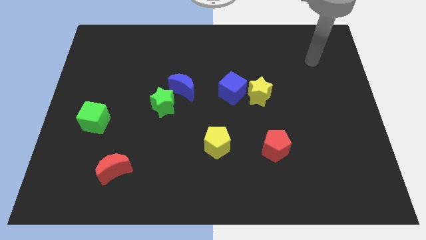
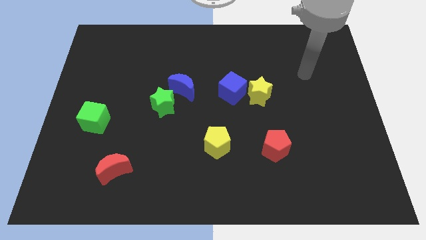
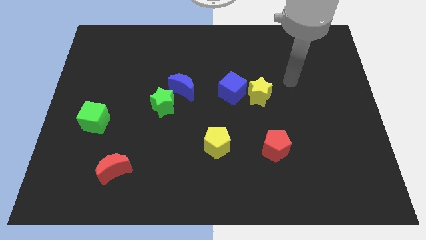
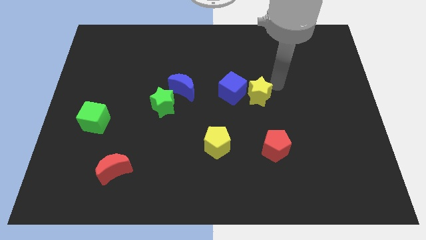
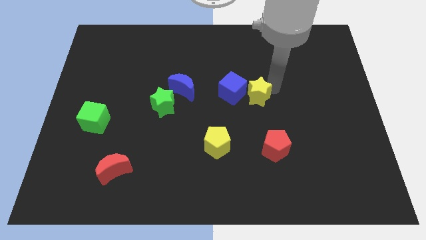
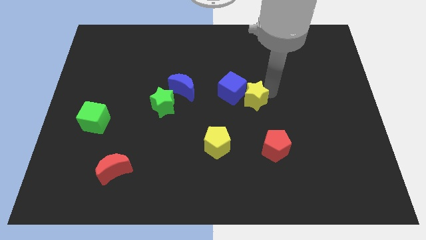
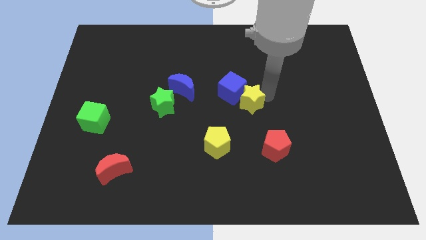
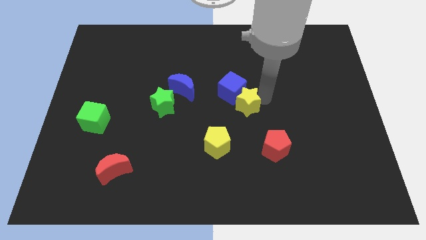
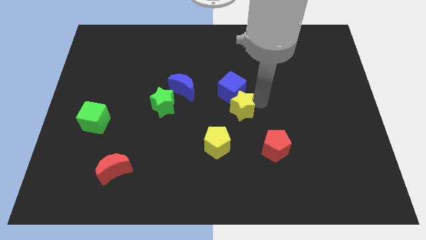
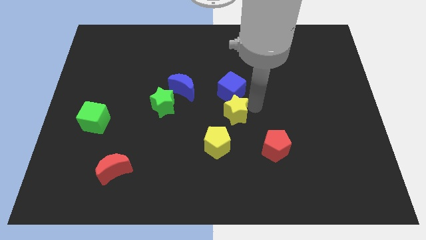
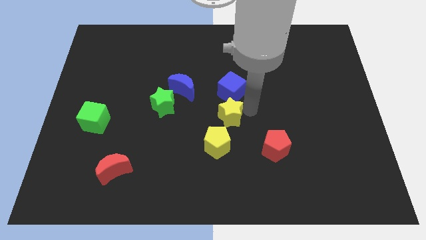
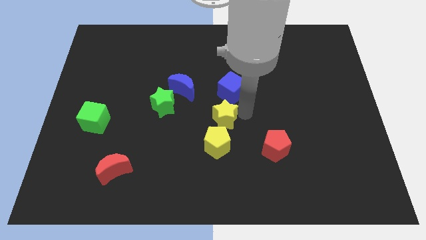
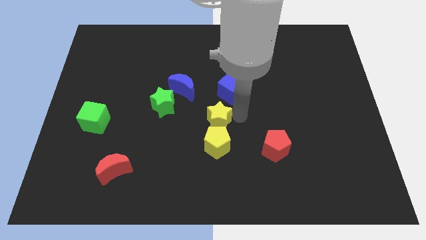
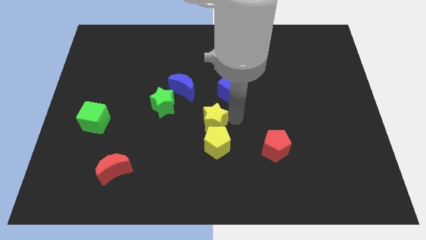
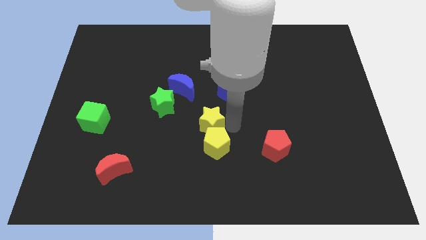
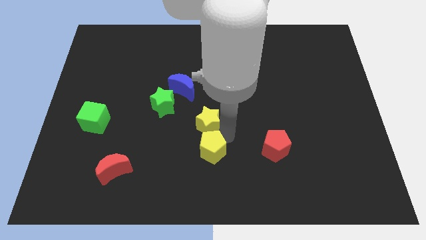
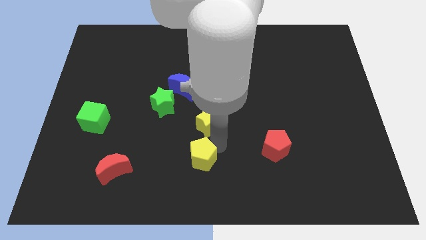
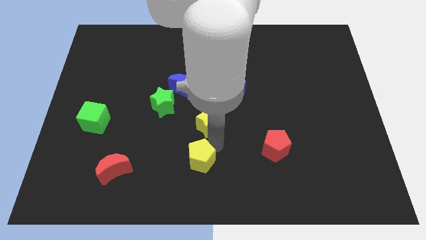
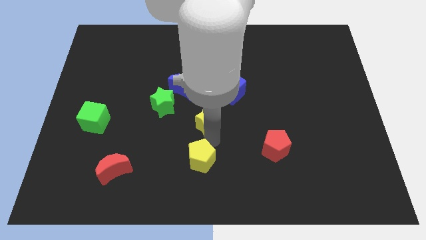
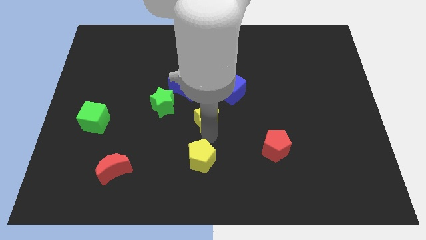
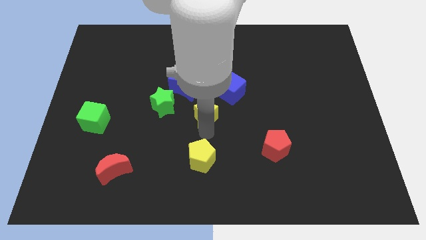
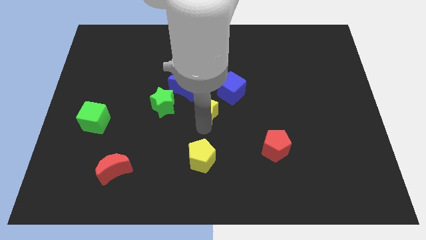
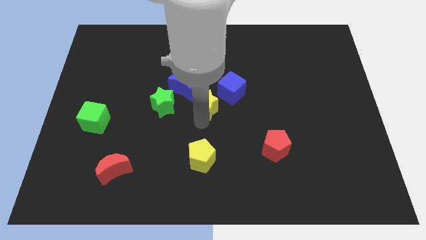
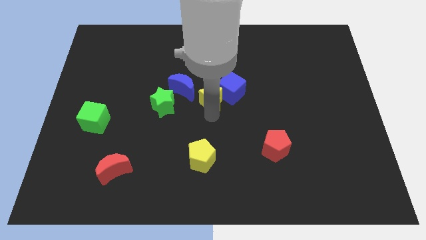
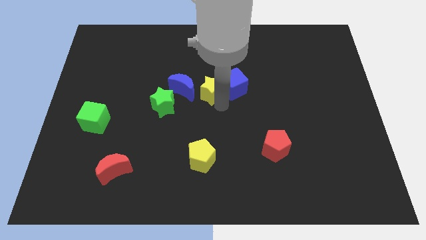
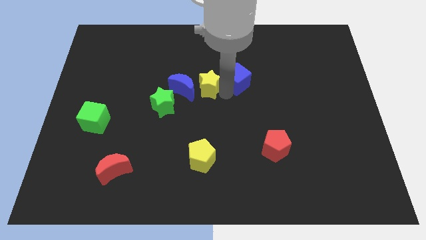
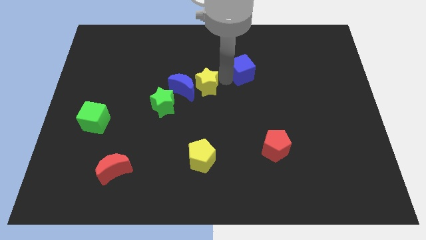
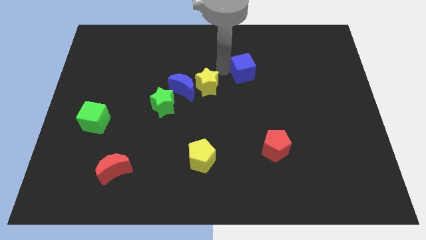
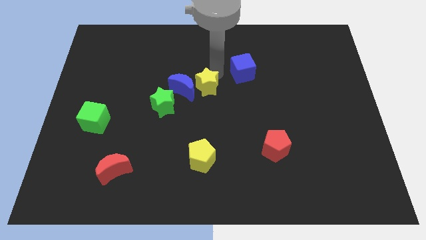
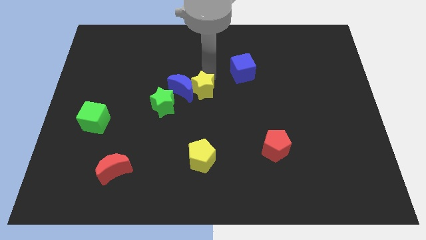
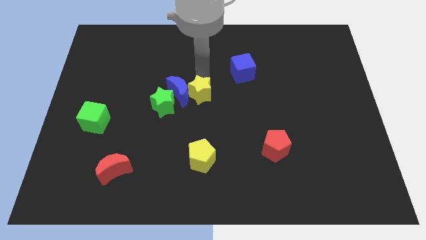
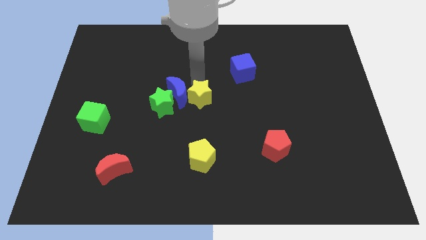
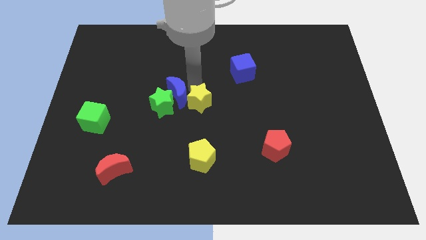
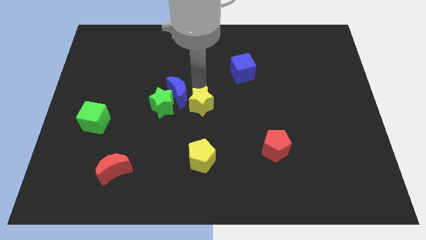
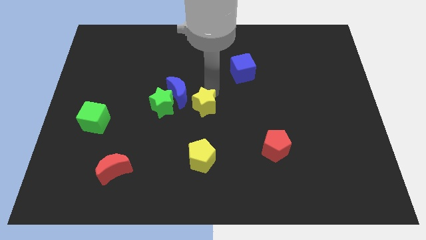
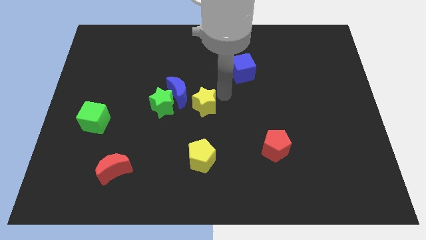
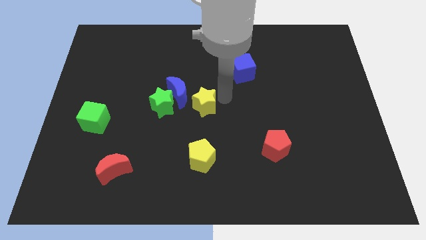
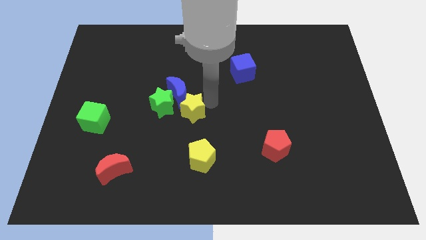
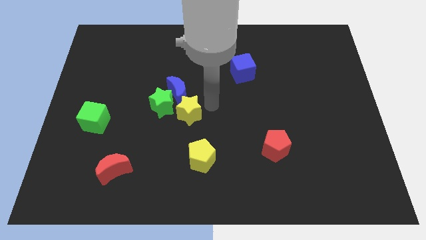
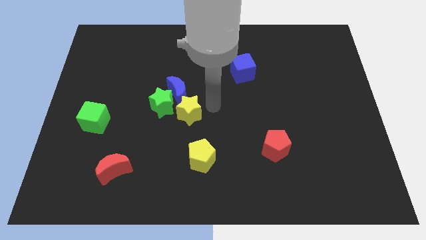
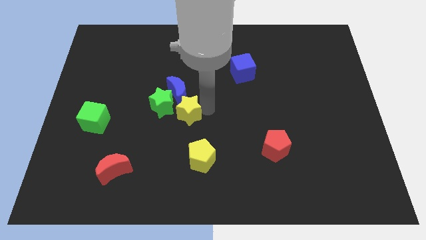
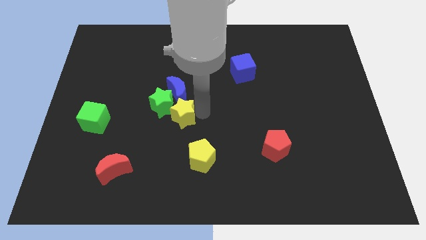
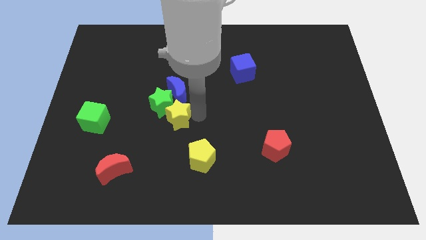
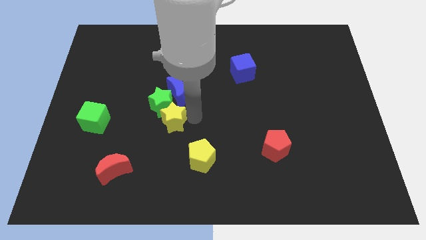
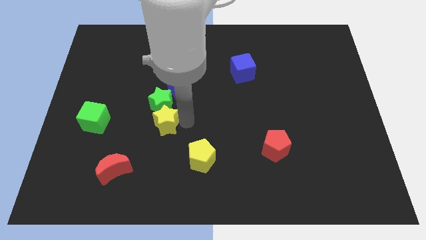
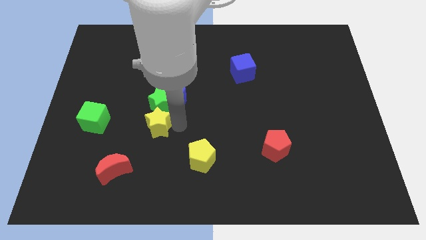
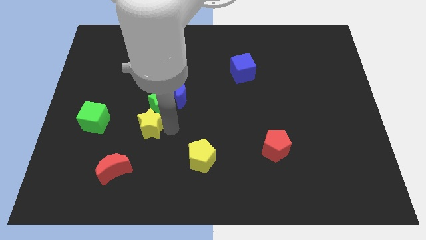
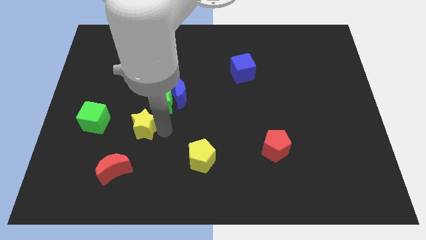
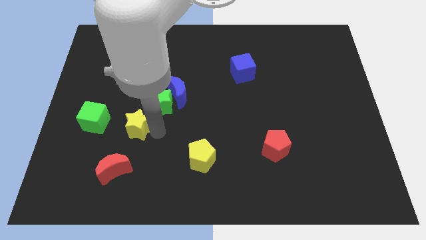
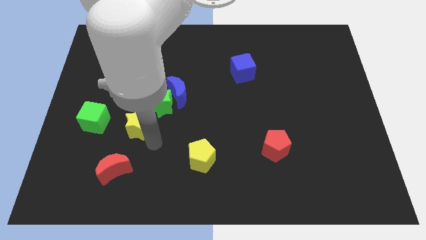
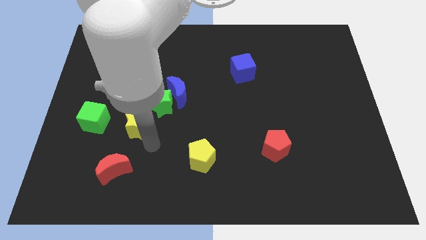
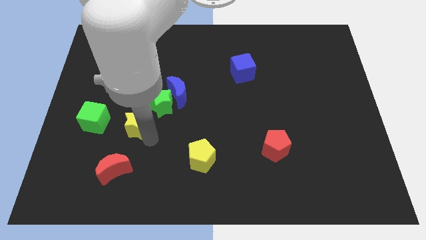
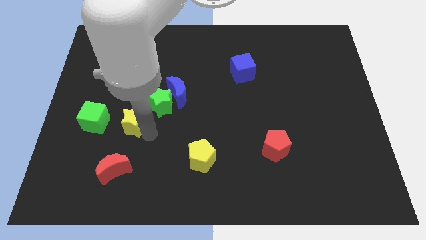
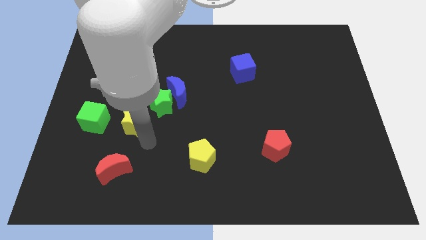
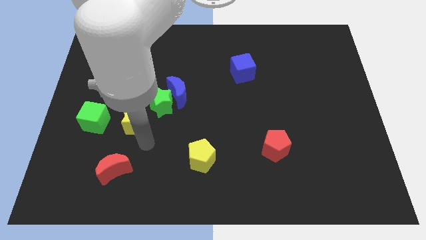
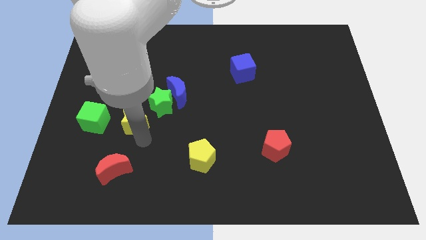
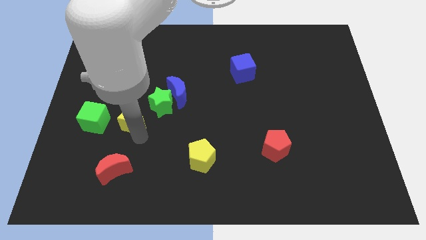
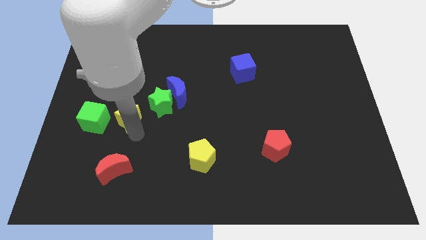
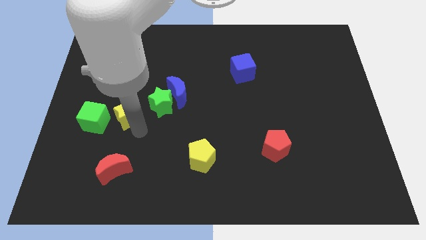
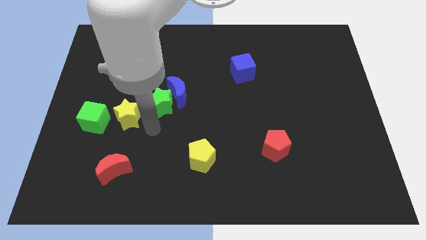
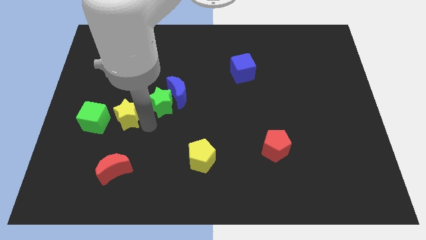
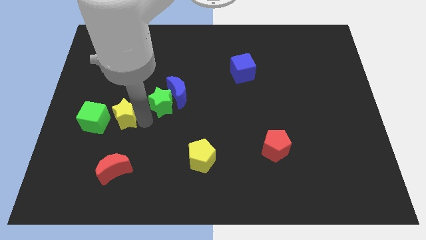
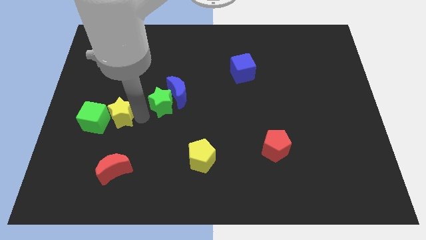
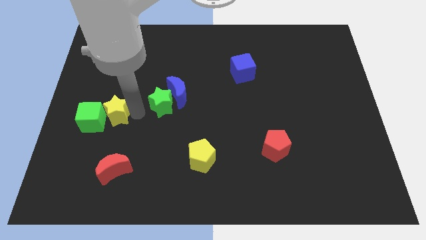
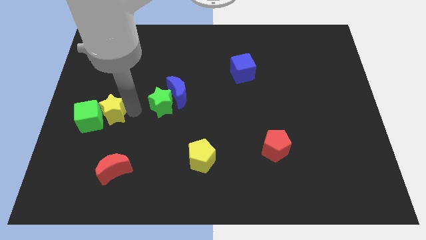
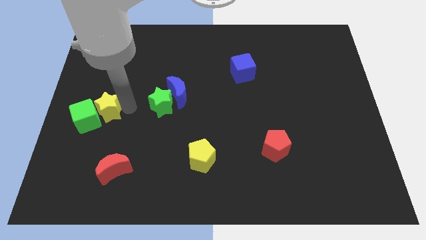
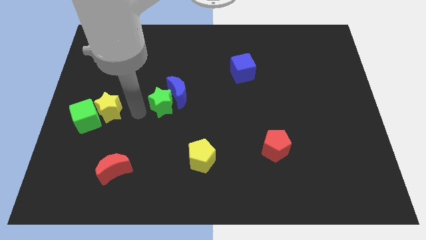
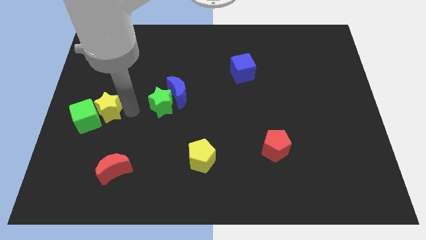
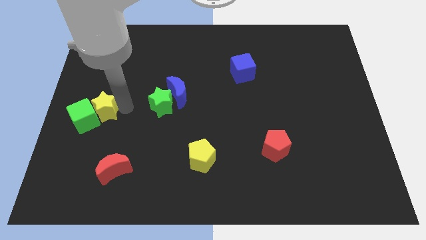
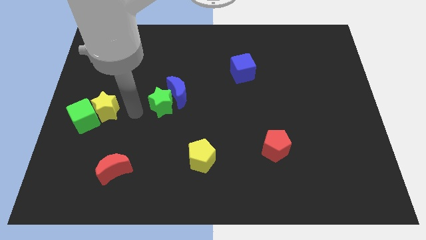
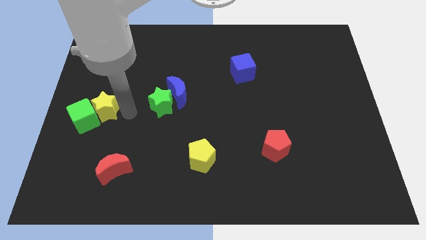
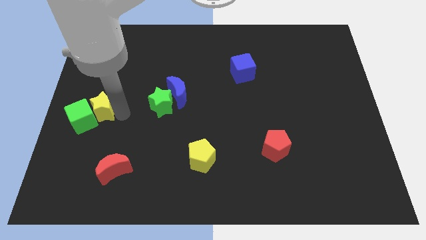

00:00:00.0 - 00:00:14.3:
slide the yellow star to the center left
